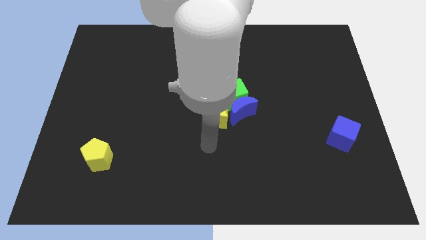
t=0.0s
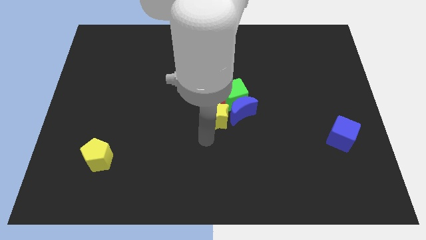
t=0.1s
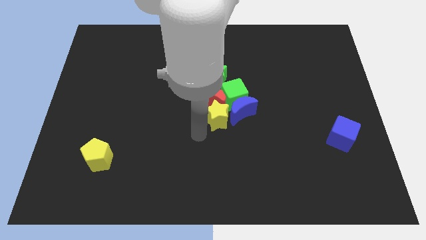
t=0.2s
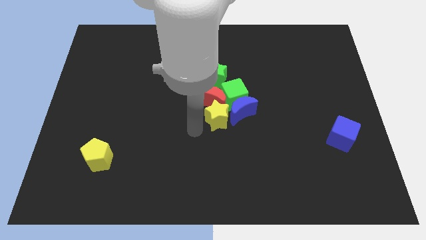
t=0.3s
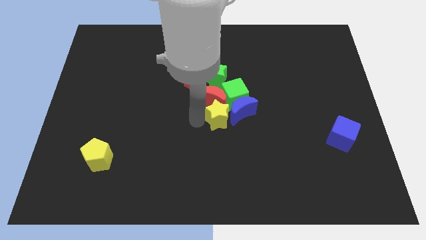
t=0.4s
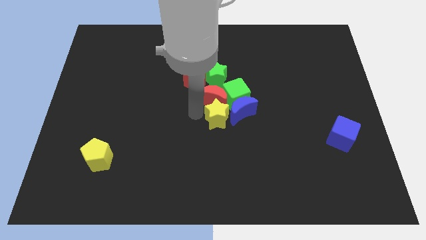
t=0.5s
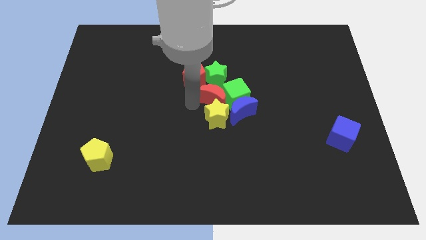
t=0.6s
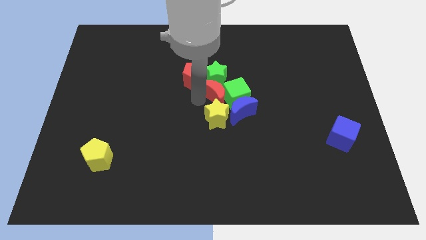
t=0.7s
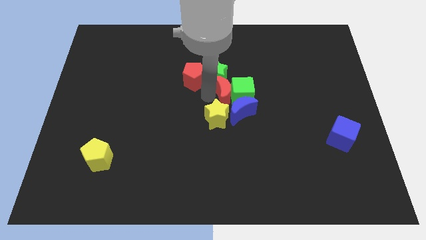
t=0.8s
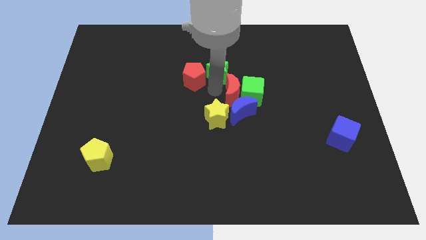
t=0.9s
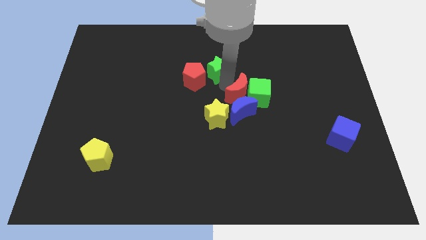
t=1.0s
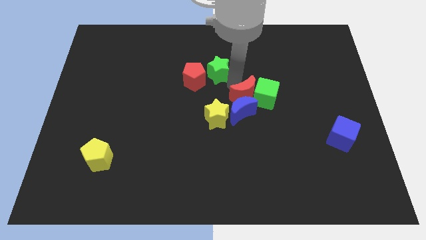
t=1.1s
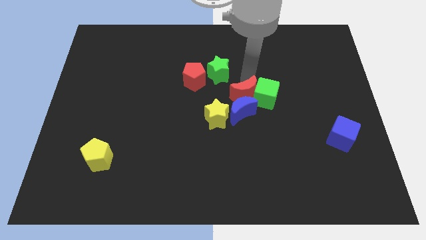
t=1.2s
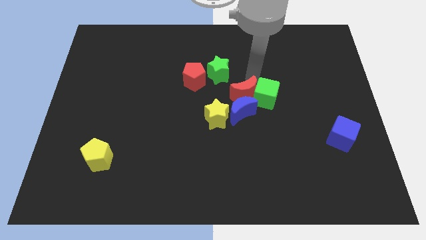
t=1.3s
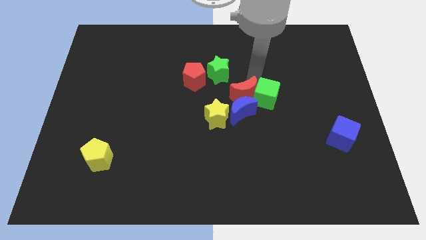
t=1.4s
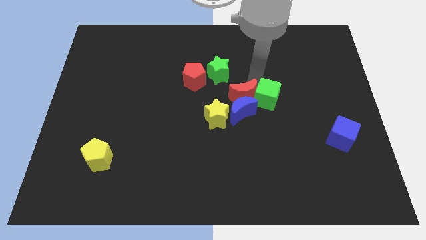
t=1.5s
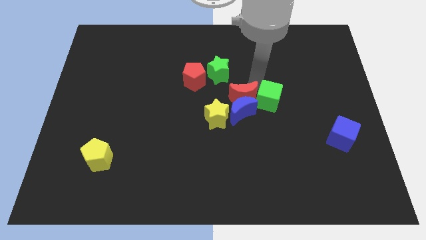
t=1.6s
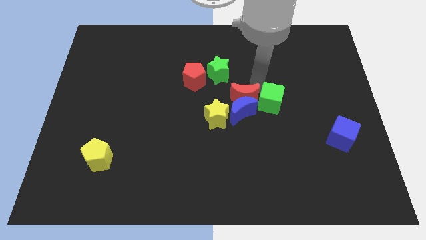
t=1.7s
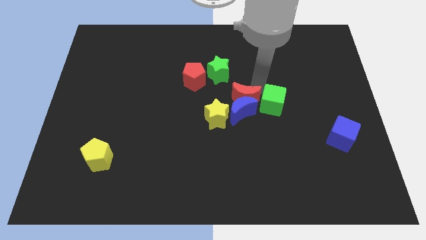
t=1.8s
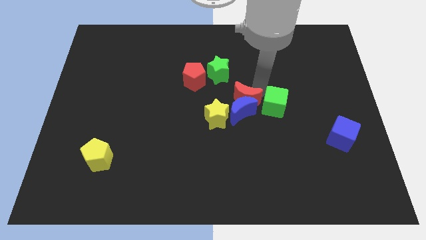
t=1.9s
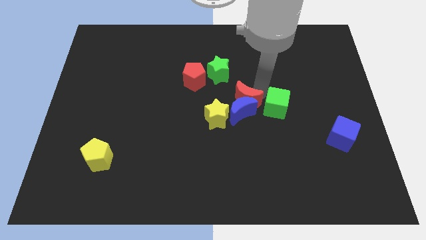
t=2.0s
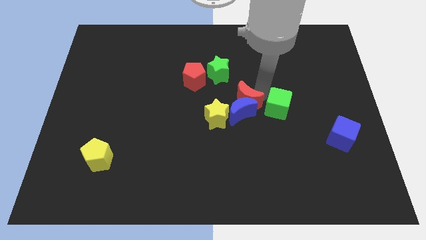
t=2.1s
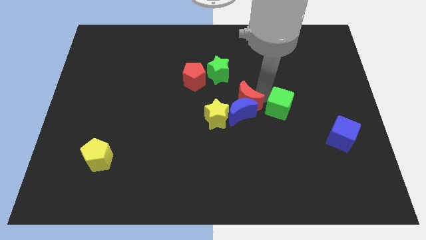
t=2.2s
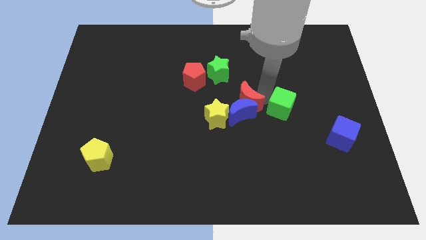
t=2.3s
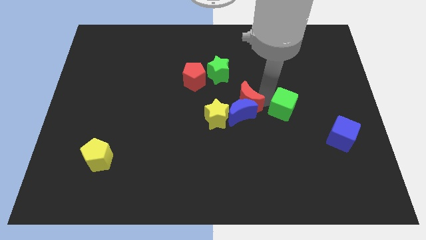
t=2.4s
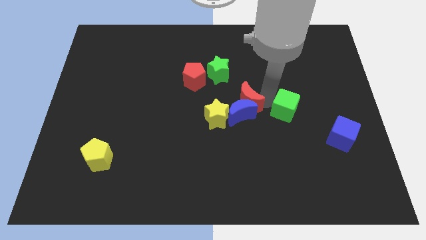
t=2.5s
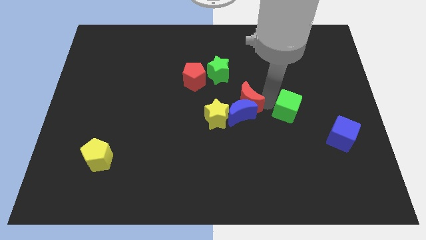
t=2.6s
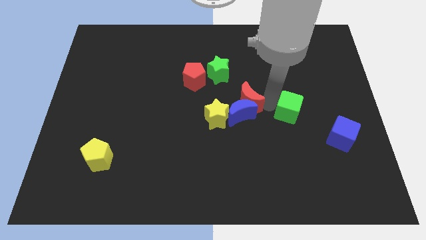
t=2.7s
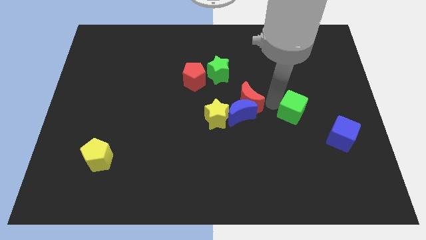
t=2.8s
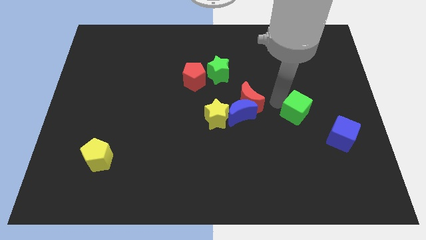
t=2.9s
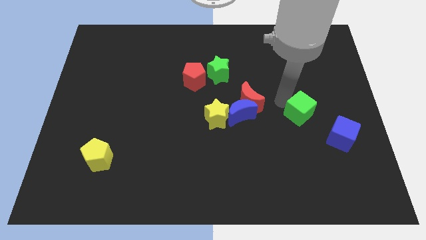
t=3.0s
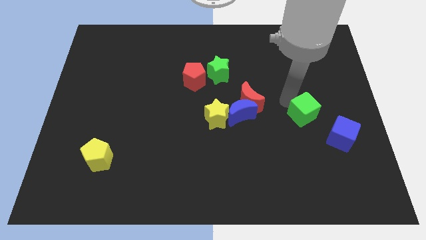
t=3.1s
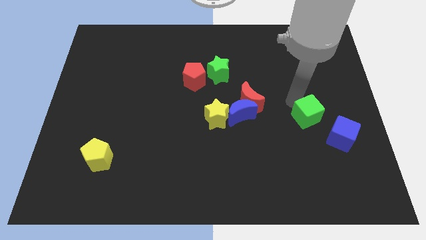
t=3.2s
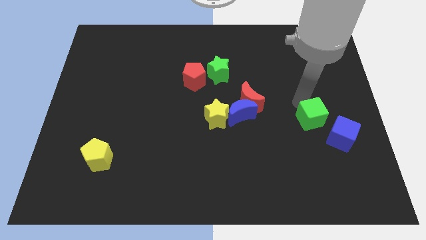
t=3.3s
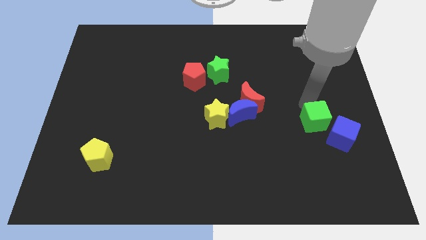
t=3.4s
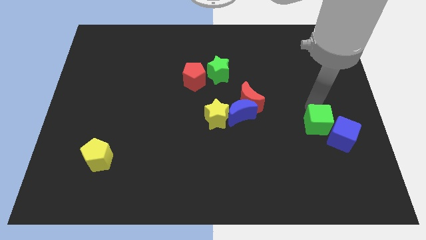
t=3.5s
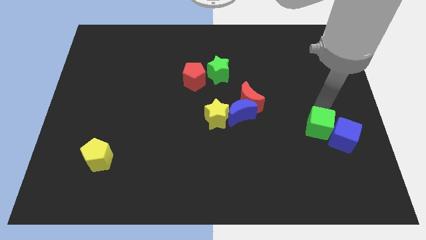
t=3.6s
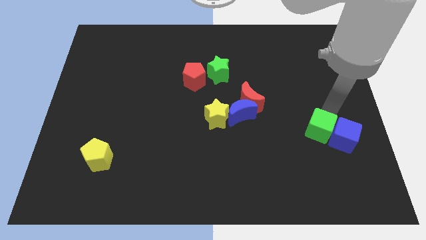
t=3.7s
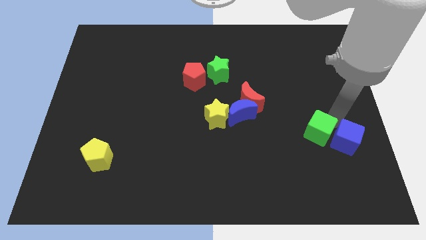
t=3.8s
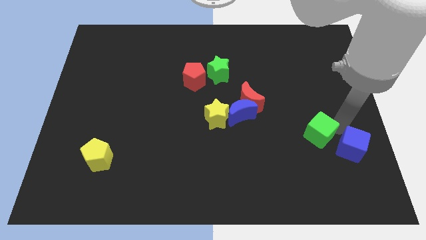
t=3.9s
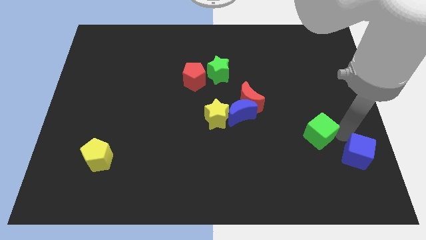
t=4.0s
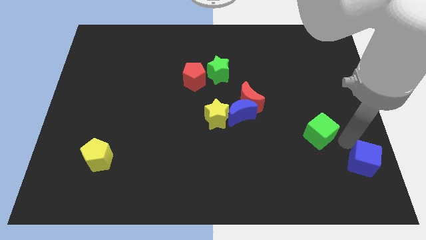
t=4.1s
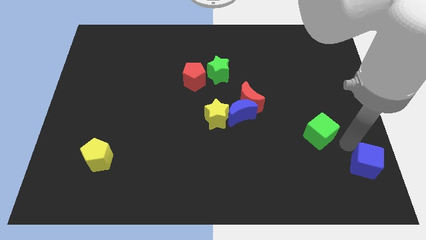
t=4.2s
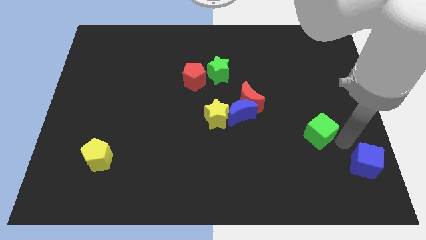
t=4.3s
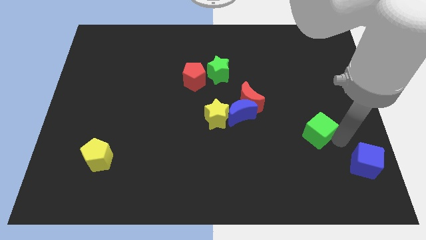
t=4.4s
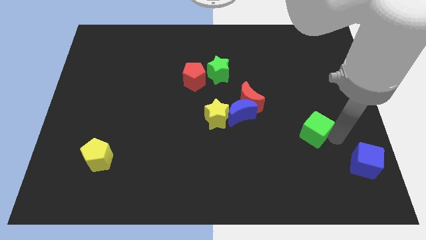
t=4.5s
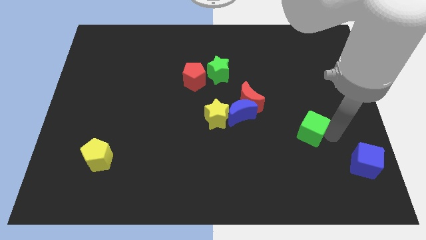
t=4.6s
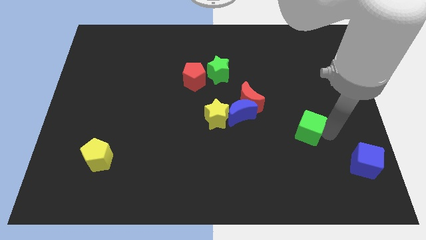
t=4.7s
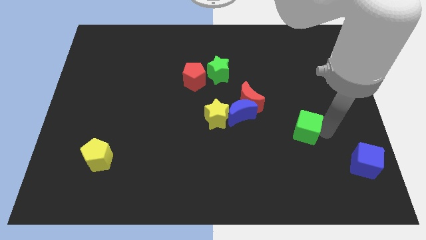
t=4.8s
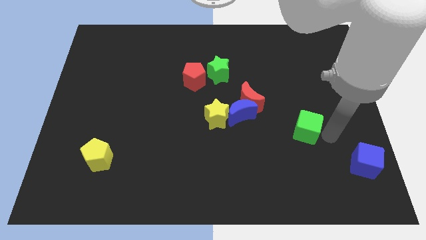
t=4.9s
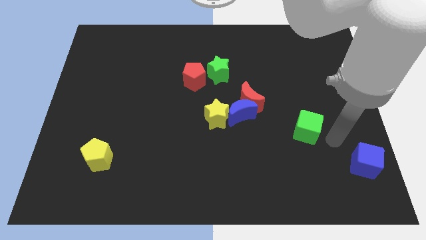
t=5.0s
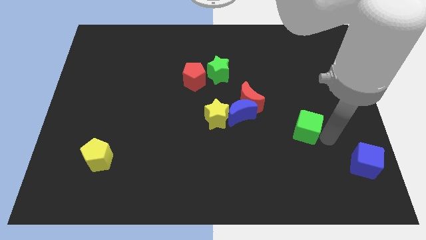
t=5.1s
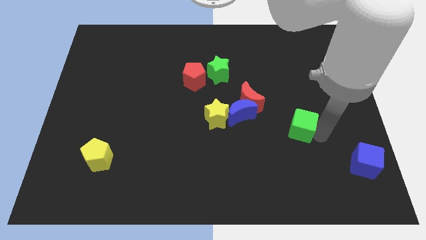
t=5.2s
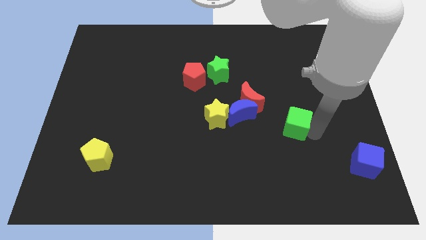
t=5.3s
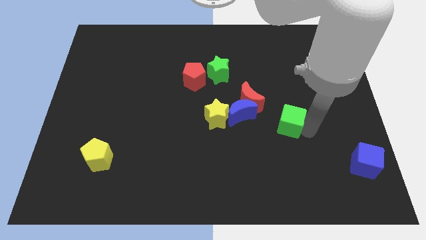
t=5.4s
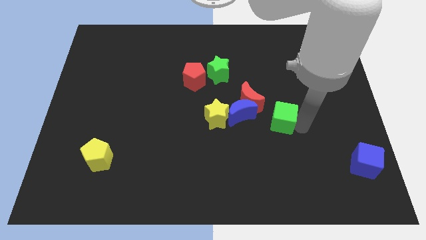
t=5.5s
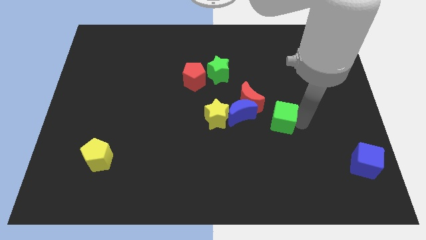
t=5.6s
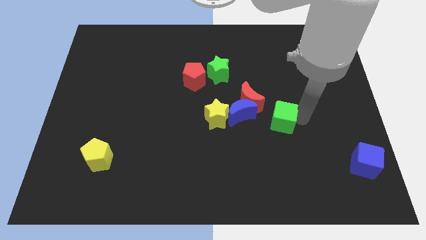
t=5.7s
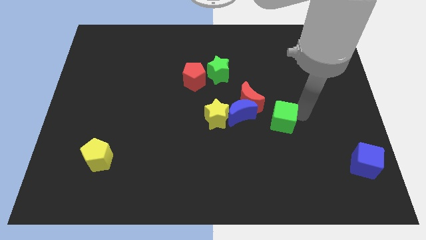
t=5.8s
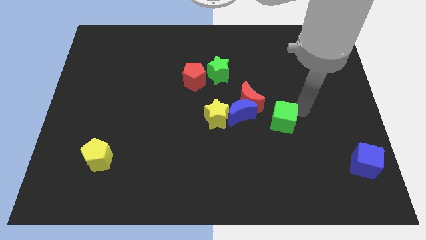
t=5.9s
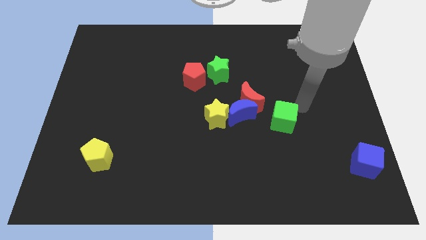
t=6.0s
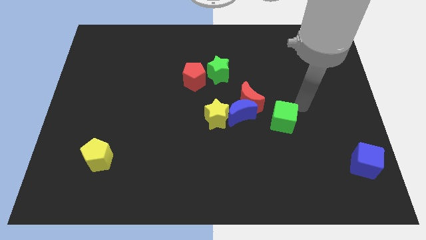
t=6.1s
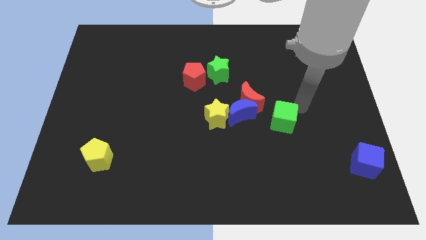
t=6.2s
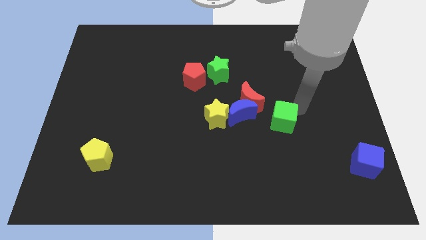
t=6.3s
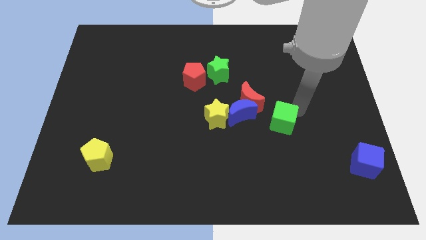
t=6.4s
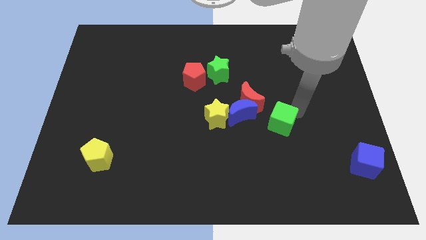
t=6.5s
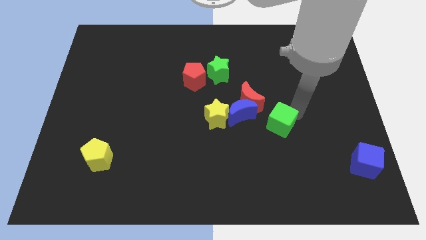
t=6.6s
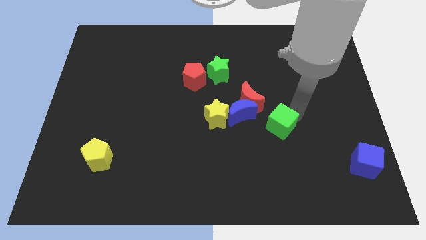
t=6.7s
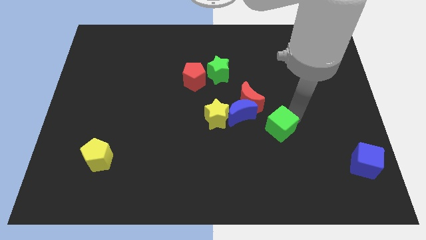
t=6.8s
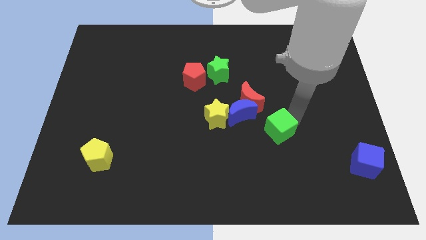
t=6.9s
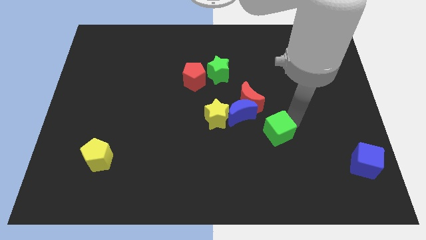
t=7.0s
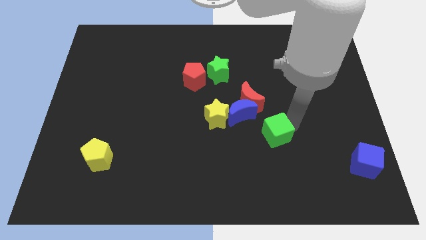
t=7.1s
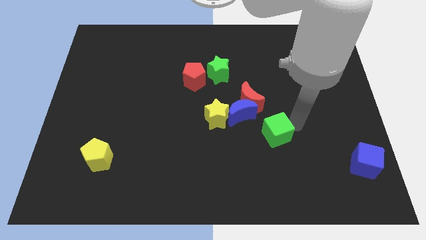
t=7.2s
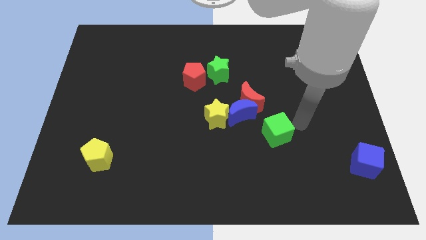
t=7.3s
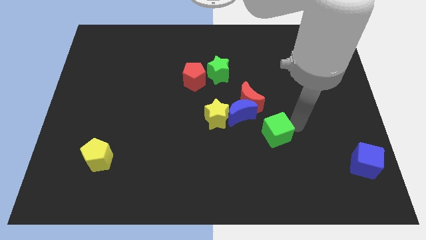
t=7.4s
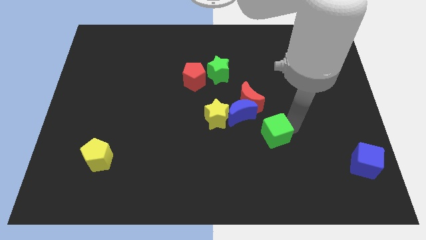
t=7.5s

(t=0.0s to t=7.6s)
slide the green cube down a little bit

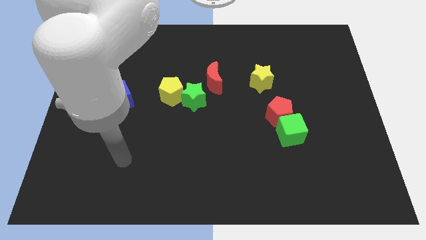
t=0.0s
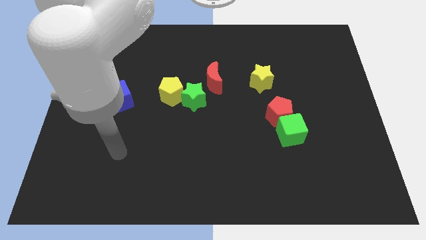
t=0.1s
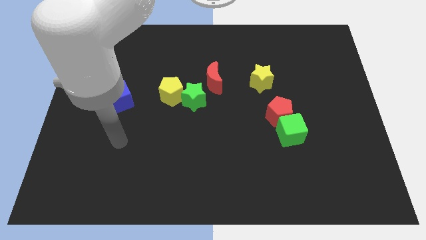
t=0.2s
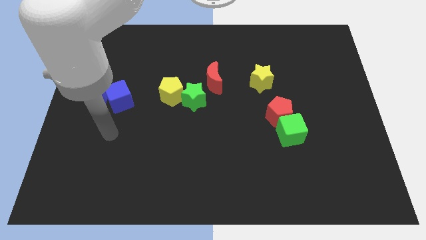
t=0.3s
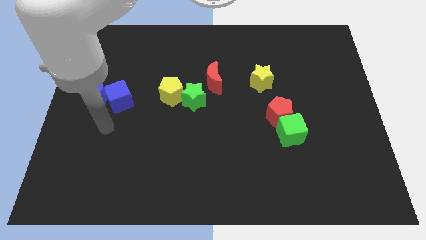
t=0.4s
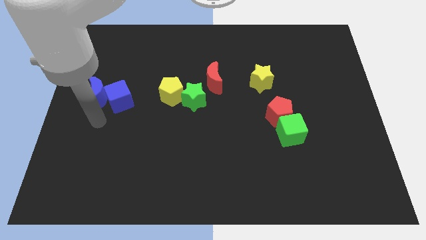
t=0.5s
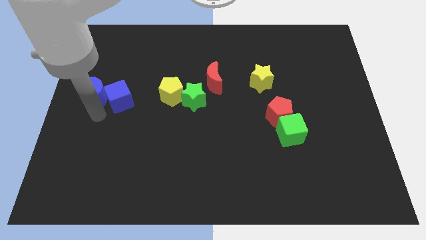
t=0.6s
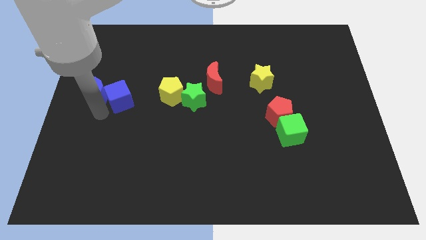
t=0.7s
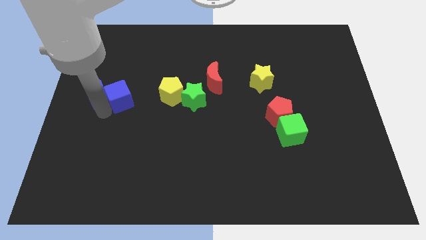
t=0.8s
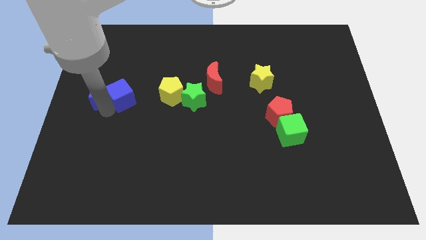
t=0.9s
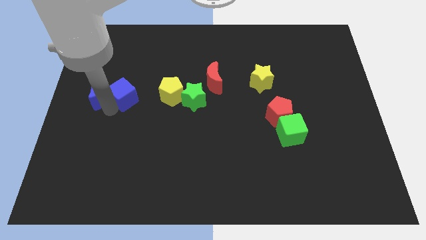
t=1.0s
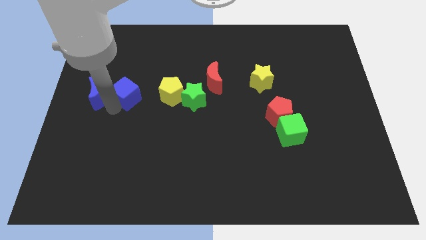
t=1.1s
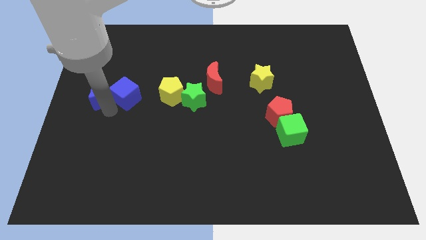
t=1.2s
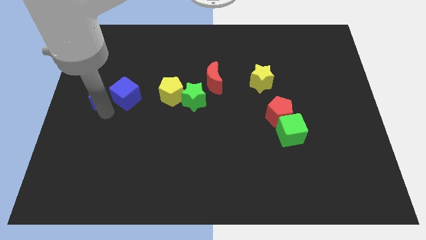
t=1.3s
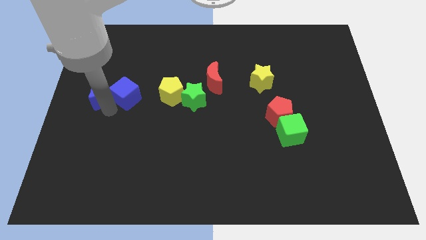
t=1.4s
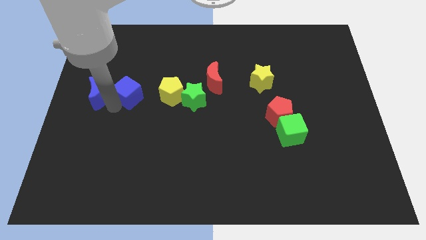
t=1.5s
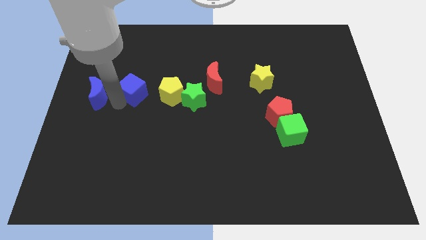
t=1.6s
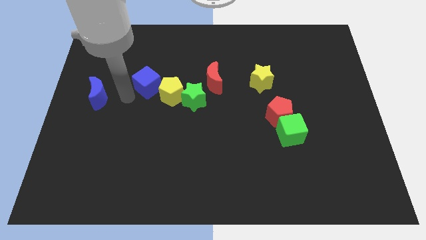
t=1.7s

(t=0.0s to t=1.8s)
push the blue cube up and right a little
